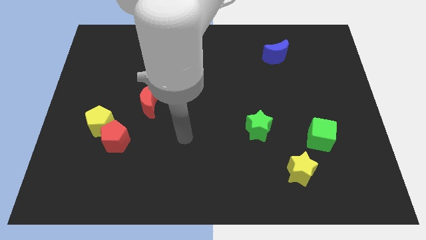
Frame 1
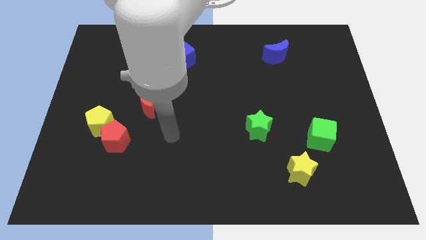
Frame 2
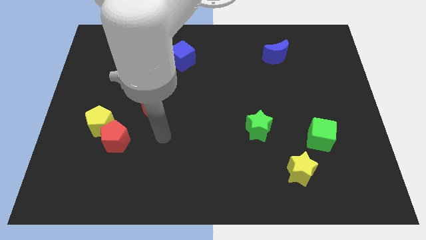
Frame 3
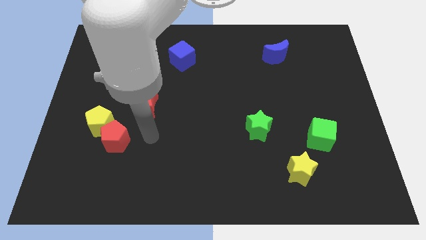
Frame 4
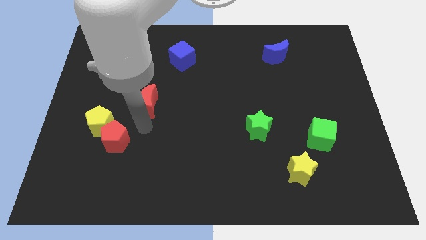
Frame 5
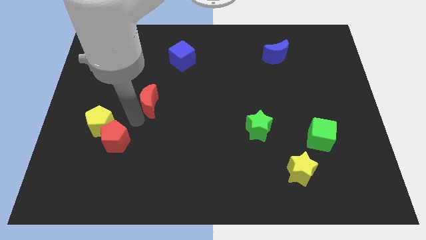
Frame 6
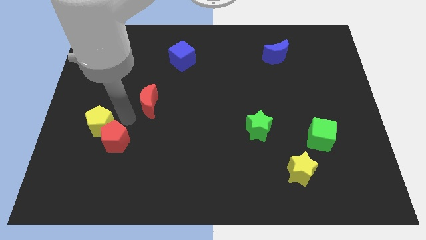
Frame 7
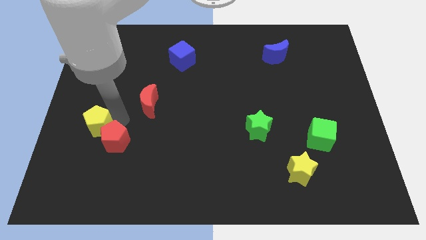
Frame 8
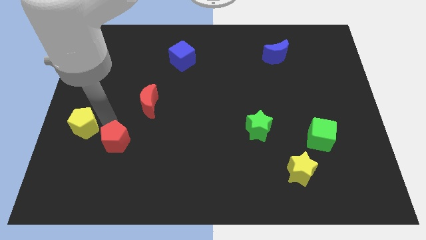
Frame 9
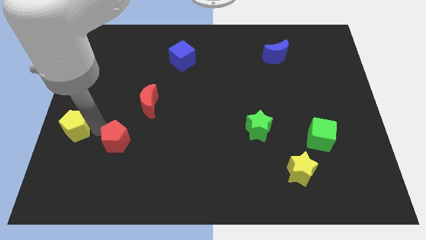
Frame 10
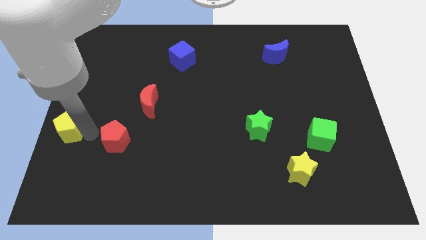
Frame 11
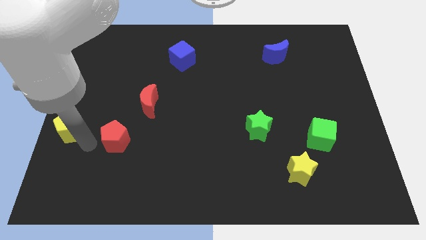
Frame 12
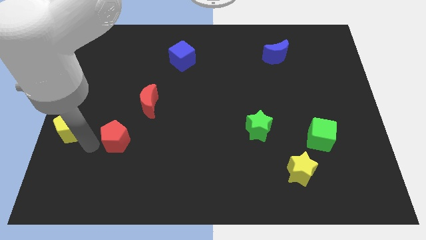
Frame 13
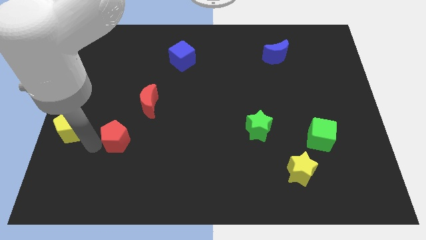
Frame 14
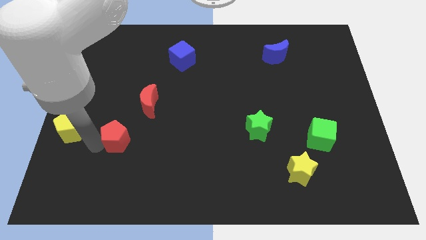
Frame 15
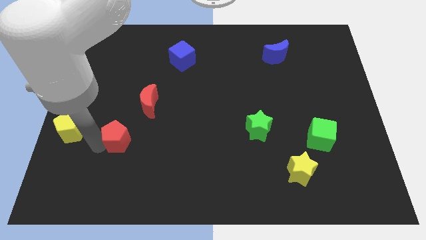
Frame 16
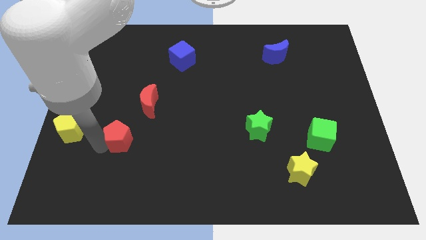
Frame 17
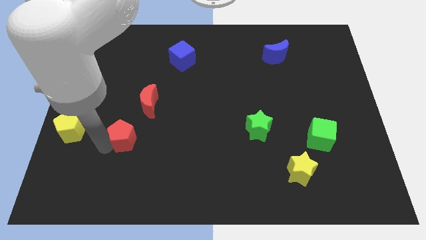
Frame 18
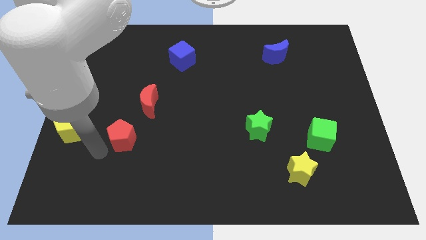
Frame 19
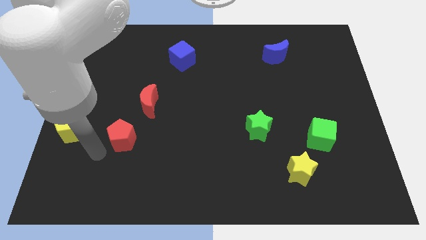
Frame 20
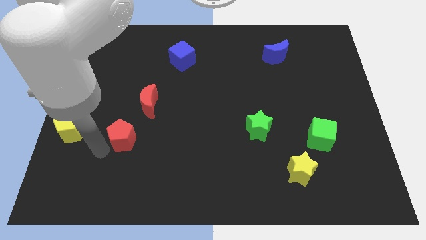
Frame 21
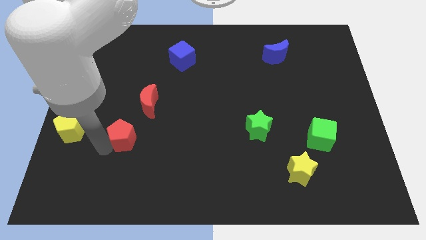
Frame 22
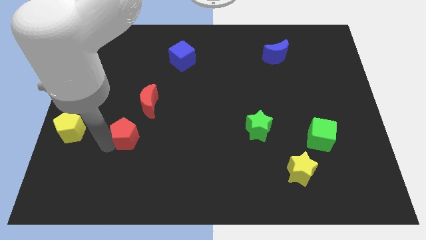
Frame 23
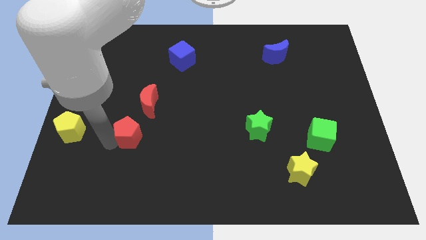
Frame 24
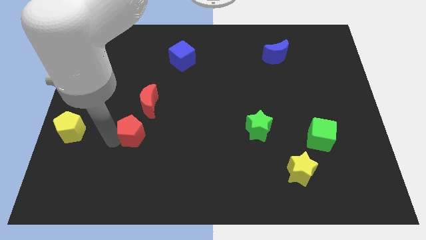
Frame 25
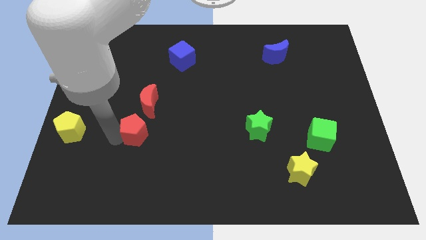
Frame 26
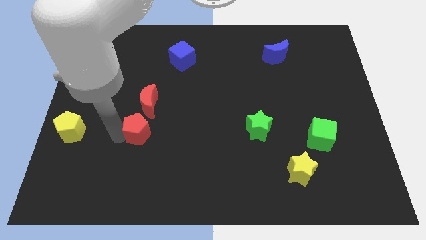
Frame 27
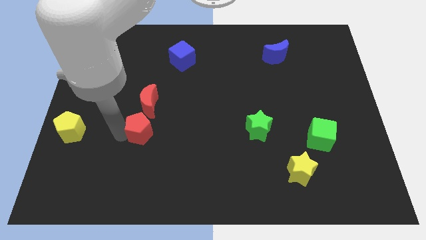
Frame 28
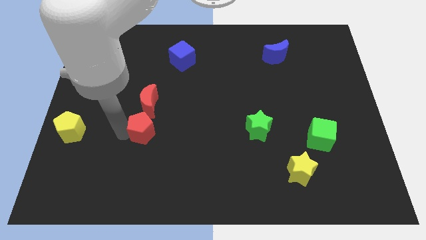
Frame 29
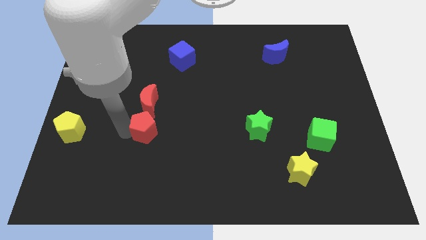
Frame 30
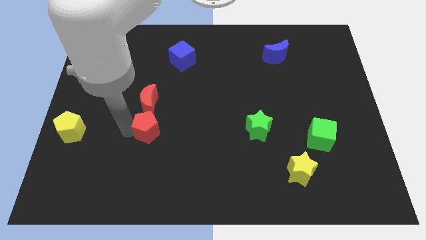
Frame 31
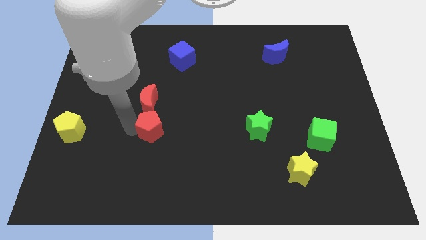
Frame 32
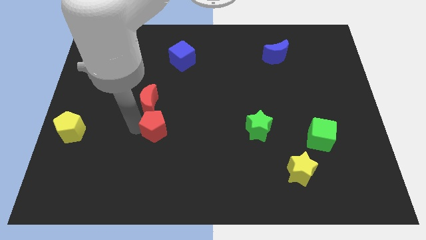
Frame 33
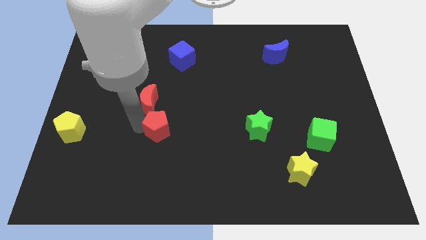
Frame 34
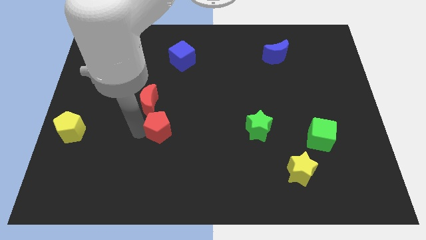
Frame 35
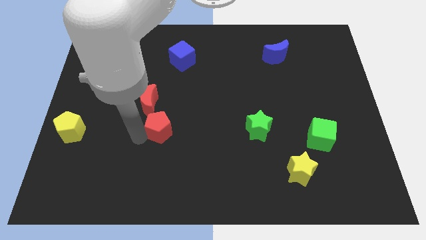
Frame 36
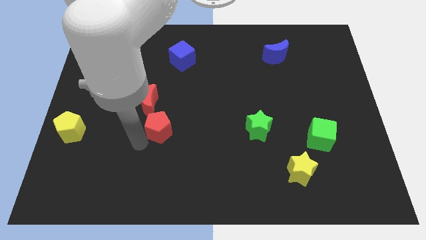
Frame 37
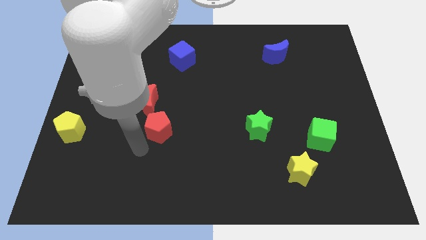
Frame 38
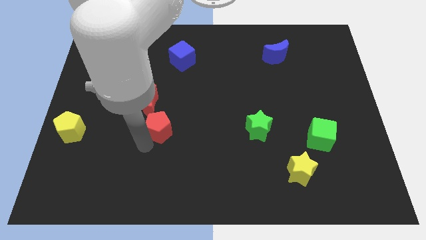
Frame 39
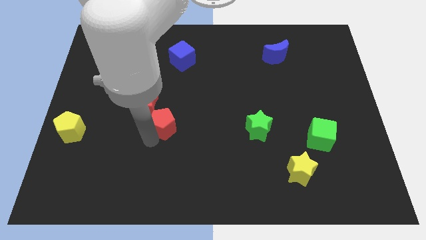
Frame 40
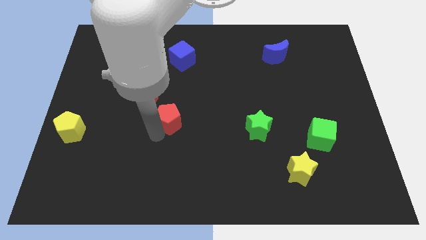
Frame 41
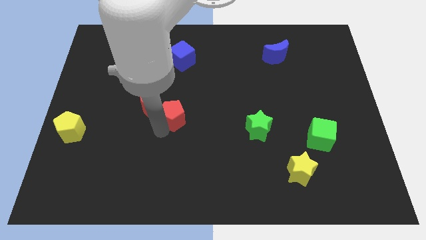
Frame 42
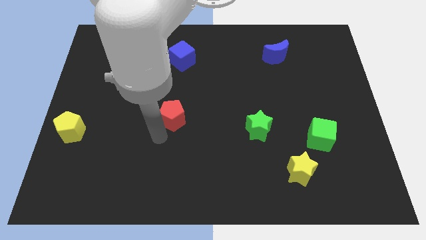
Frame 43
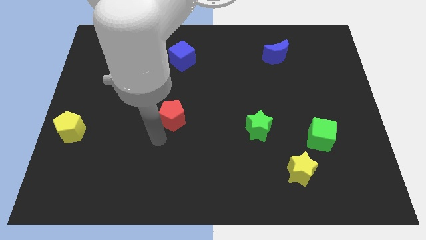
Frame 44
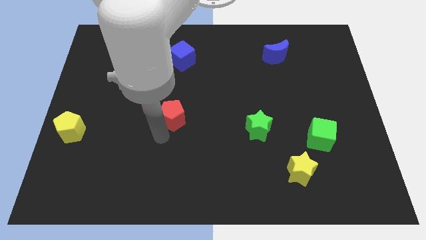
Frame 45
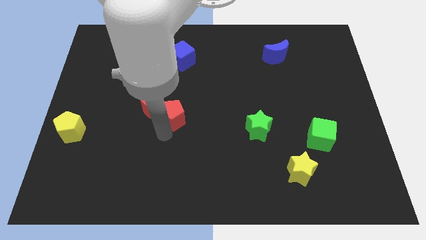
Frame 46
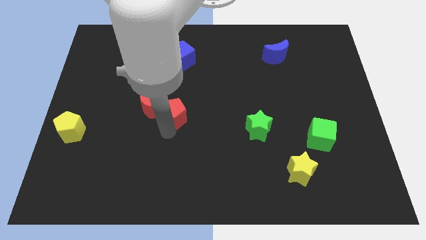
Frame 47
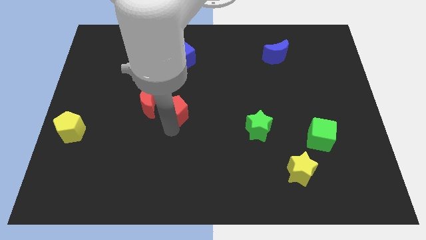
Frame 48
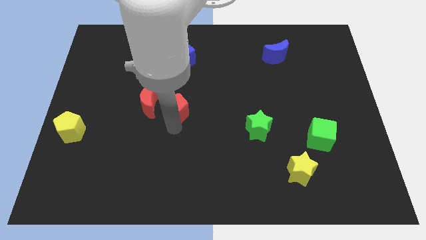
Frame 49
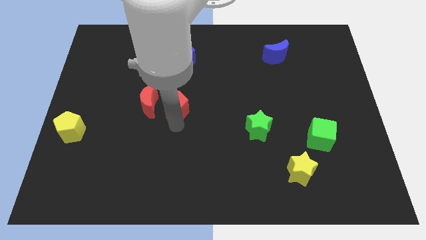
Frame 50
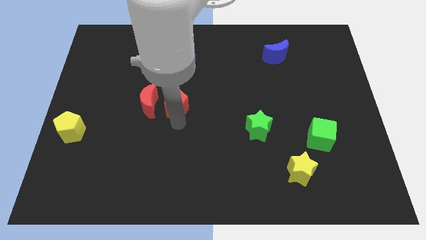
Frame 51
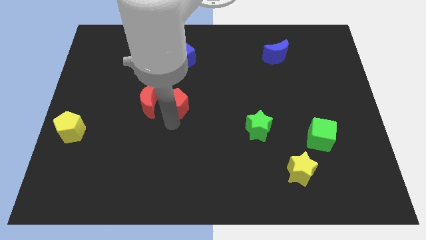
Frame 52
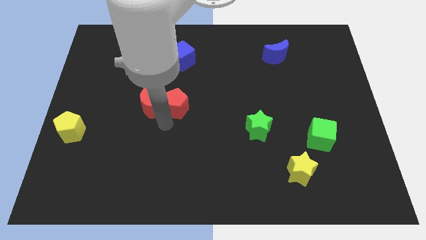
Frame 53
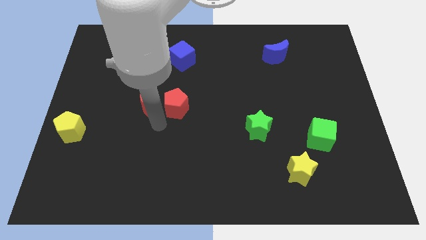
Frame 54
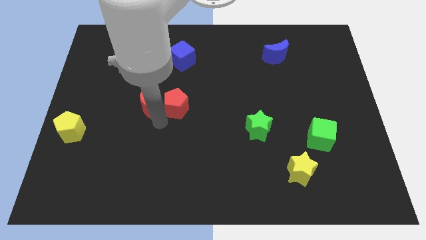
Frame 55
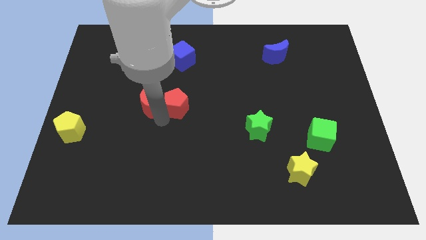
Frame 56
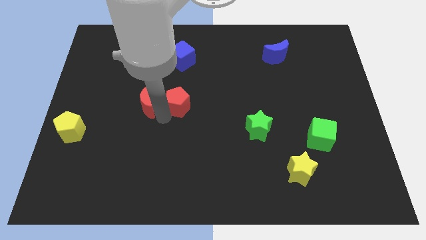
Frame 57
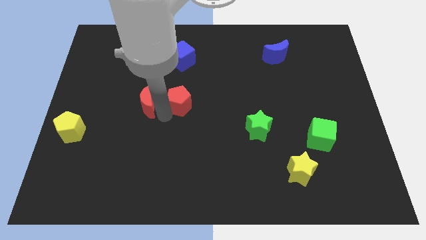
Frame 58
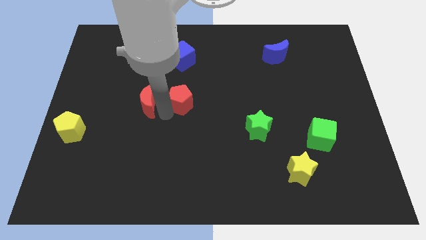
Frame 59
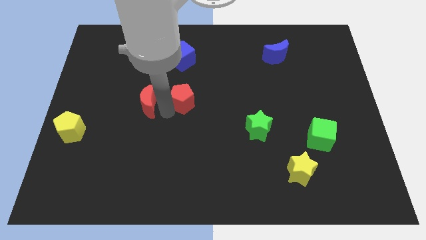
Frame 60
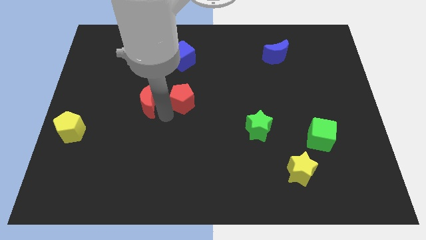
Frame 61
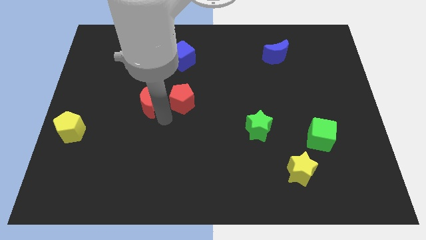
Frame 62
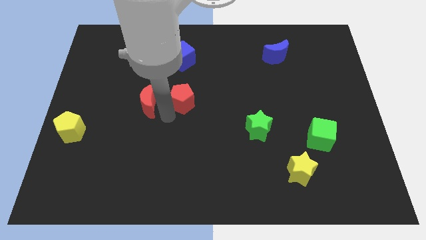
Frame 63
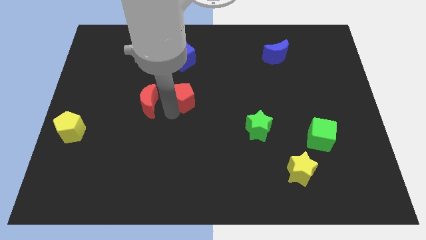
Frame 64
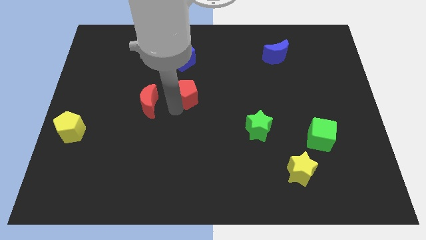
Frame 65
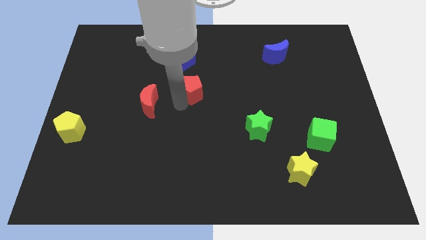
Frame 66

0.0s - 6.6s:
move the red pentagon diagonally upwards and to the right

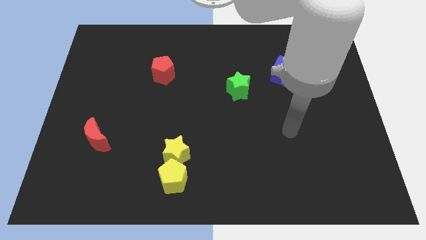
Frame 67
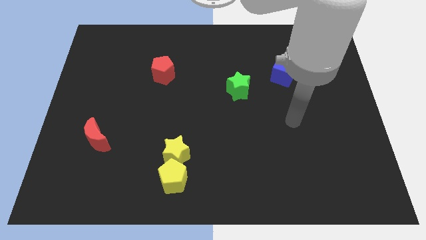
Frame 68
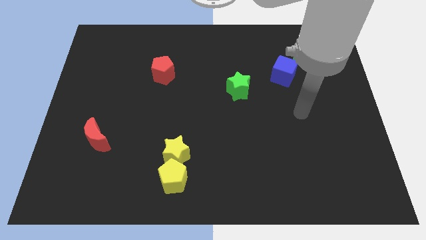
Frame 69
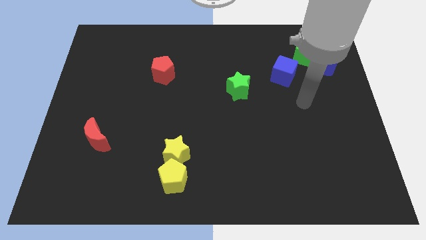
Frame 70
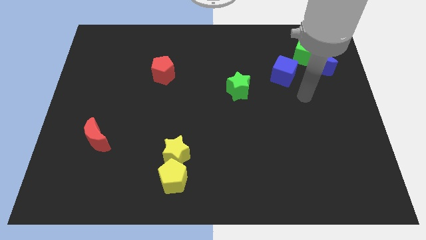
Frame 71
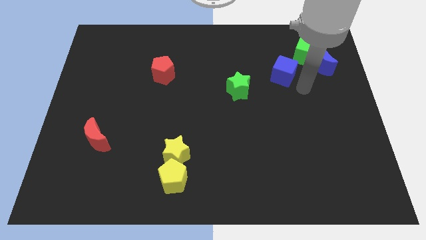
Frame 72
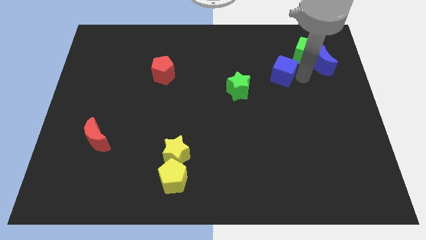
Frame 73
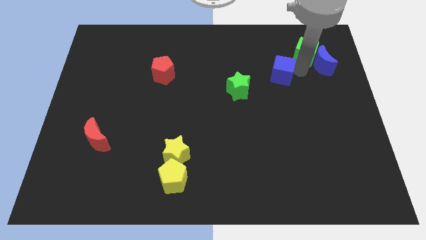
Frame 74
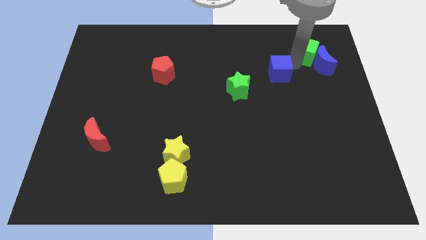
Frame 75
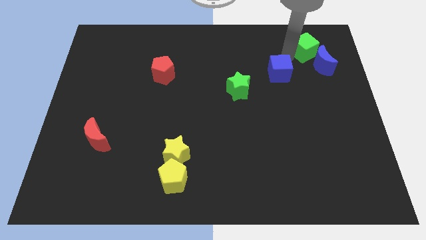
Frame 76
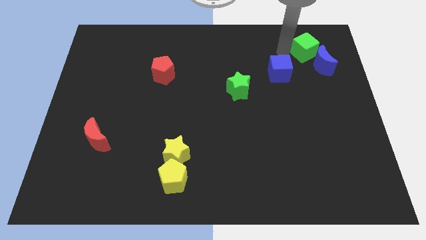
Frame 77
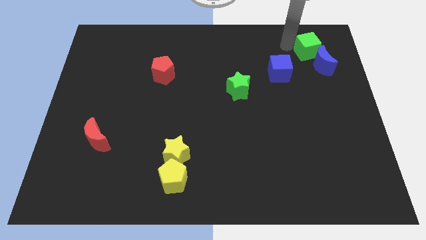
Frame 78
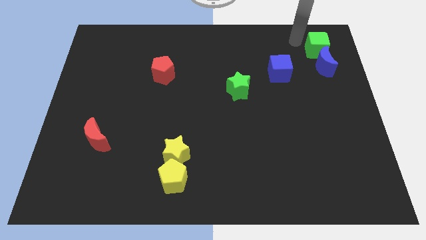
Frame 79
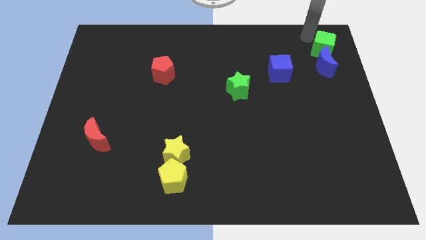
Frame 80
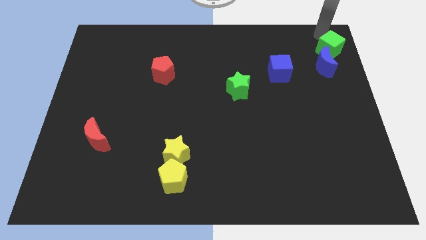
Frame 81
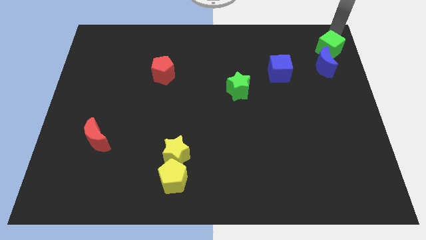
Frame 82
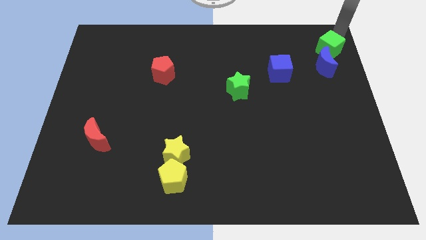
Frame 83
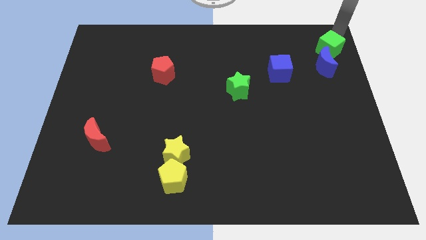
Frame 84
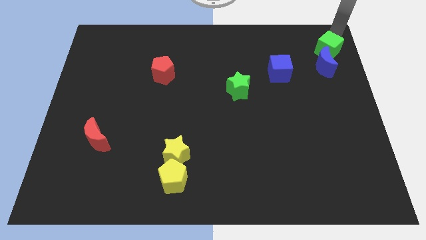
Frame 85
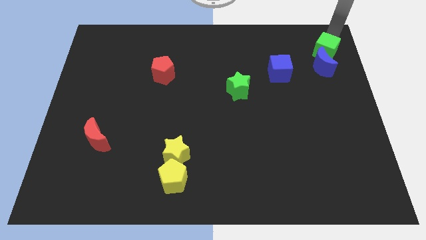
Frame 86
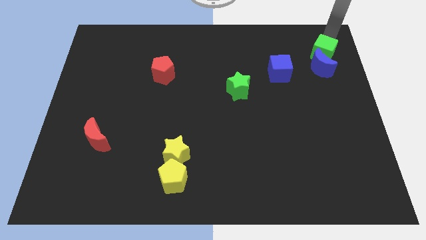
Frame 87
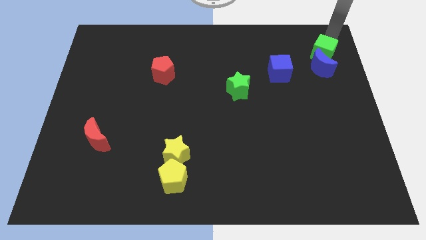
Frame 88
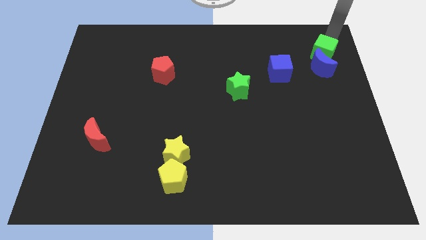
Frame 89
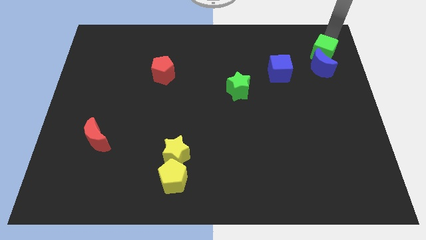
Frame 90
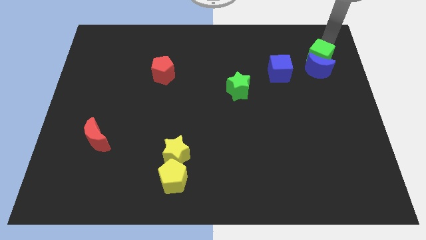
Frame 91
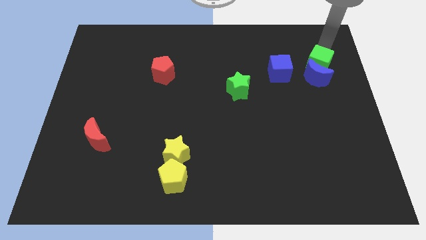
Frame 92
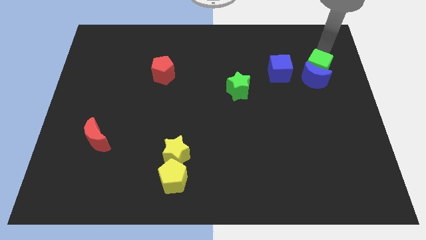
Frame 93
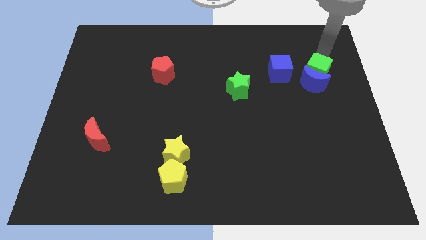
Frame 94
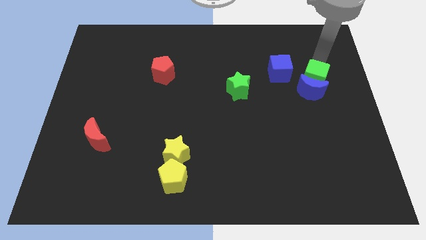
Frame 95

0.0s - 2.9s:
slightly move the green cube down
